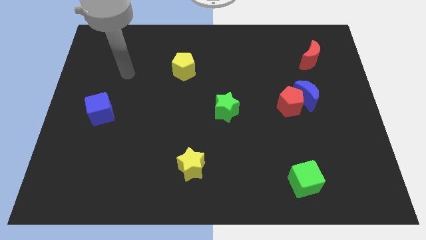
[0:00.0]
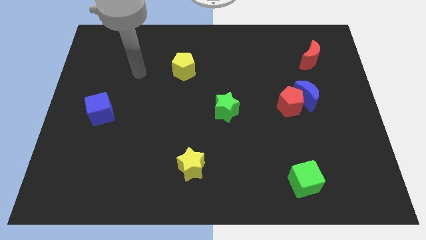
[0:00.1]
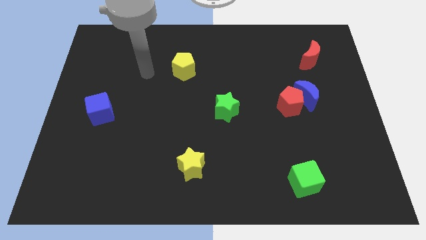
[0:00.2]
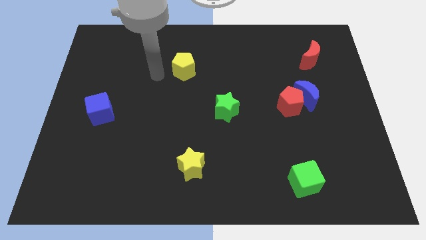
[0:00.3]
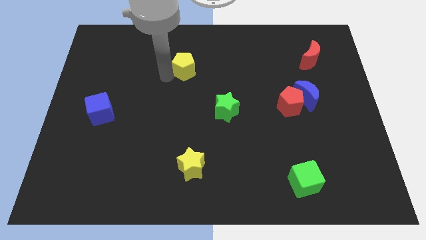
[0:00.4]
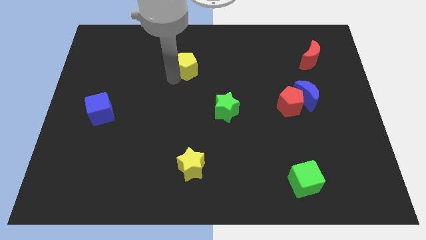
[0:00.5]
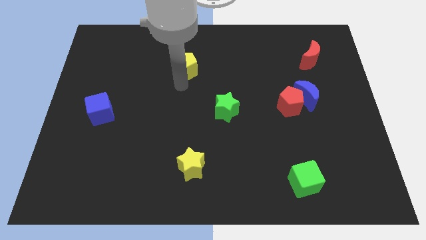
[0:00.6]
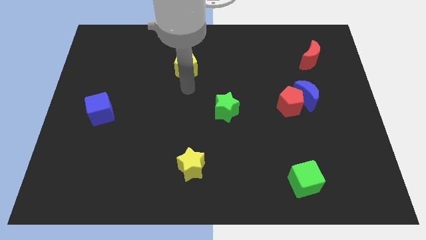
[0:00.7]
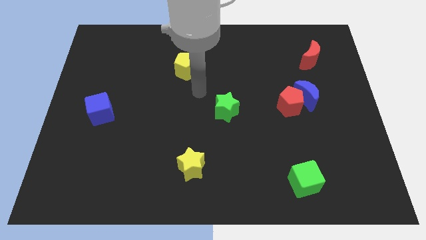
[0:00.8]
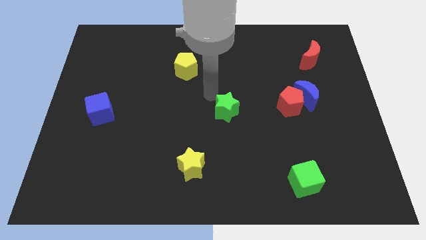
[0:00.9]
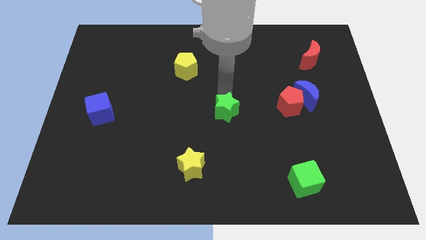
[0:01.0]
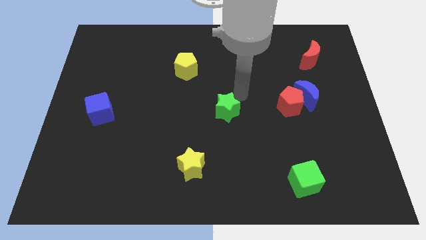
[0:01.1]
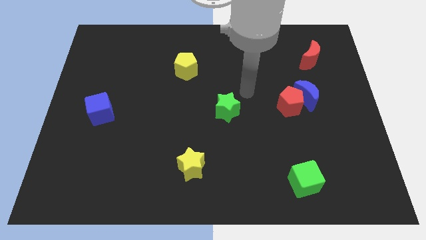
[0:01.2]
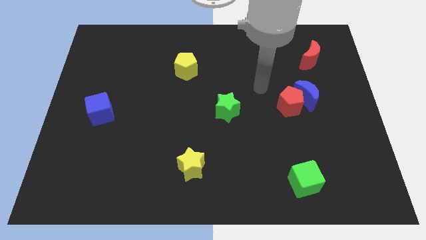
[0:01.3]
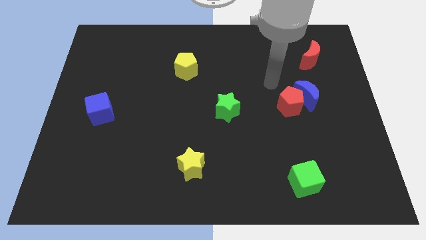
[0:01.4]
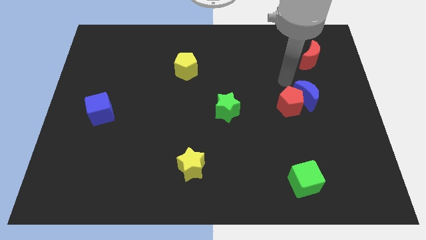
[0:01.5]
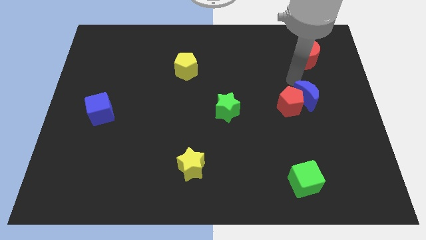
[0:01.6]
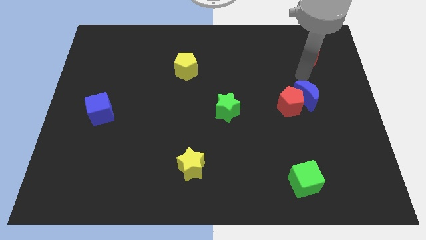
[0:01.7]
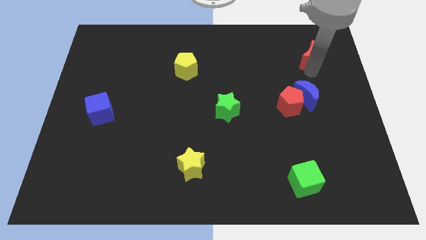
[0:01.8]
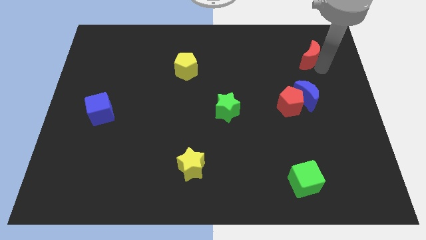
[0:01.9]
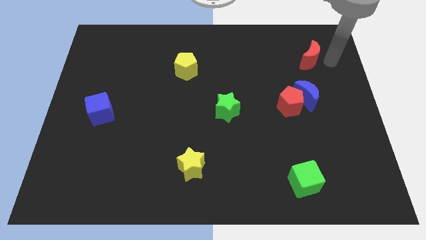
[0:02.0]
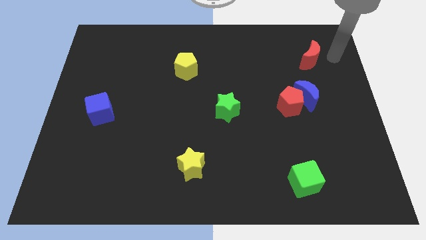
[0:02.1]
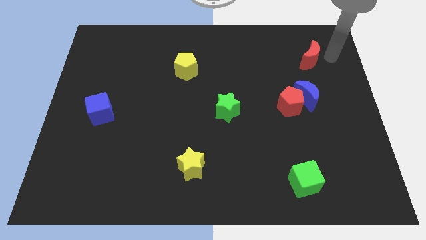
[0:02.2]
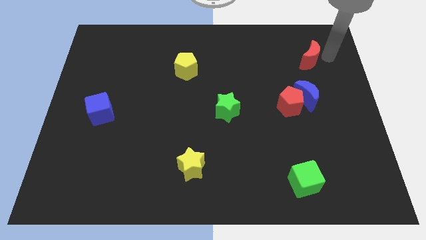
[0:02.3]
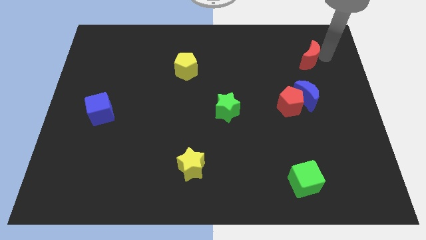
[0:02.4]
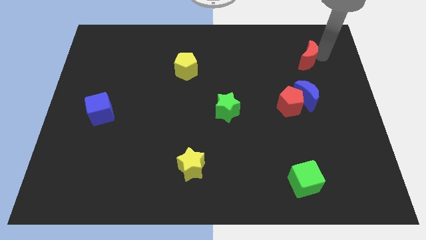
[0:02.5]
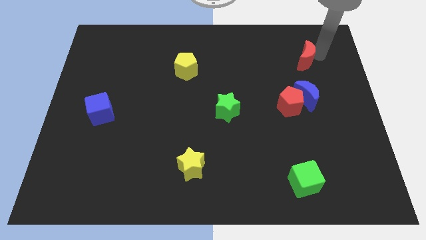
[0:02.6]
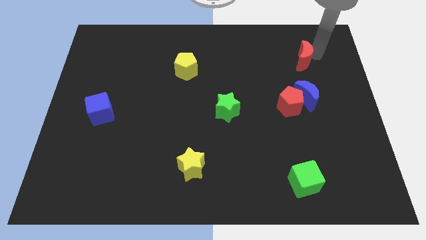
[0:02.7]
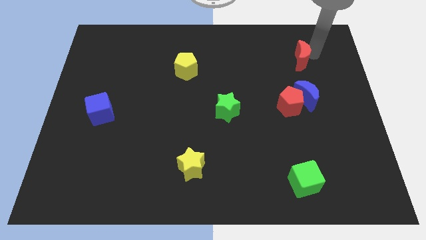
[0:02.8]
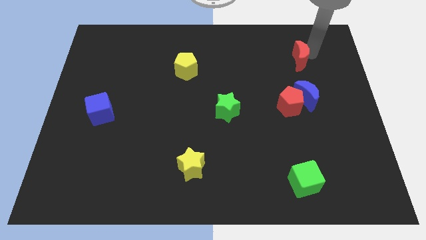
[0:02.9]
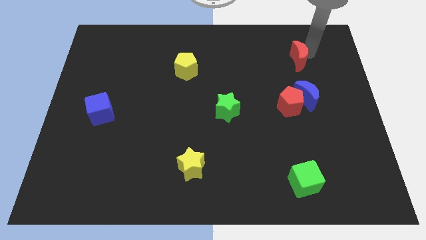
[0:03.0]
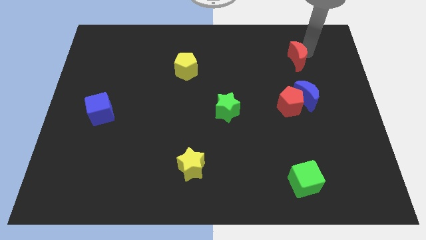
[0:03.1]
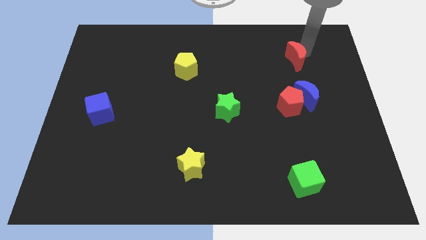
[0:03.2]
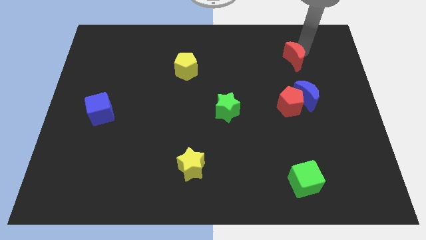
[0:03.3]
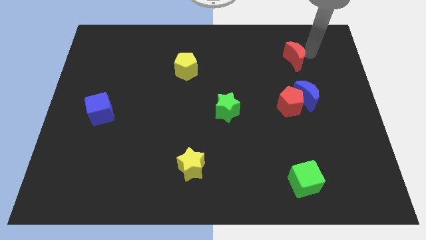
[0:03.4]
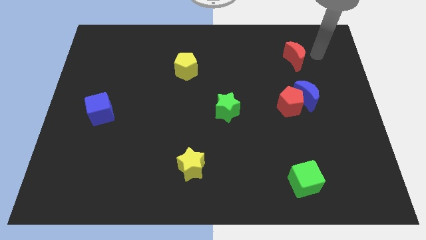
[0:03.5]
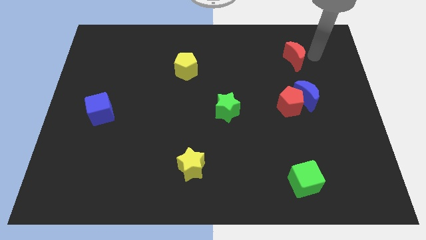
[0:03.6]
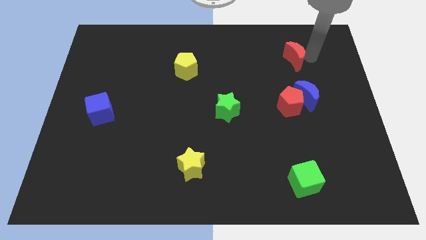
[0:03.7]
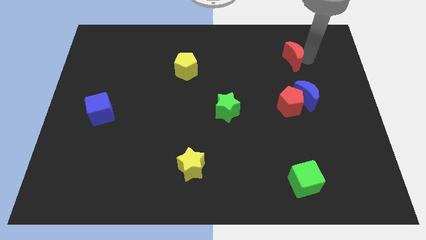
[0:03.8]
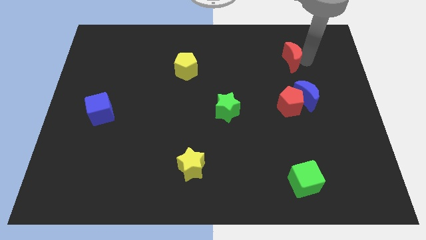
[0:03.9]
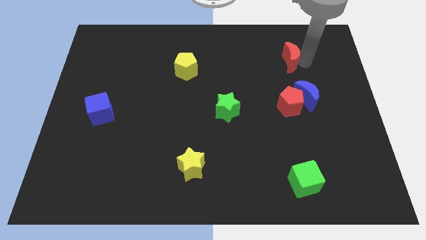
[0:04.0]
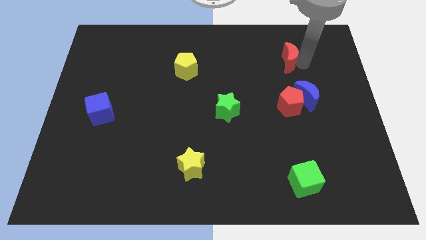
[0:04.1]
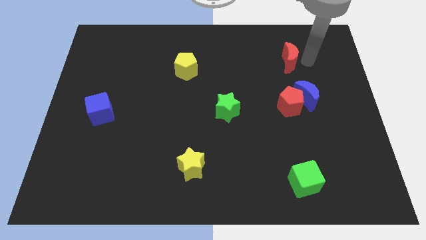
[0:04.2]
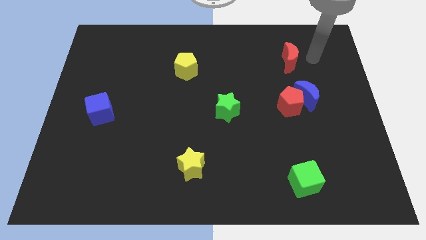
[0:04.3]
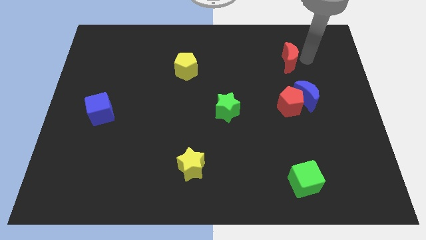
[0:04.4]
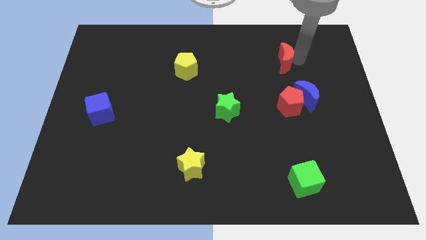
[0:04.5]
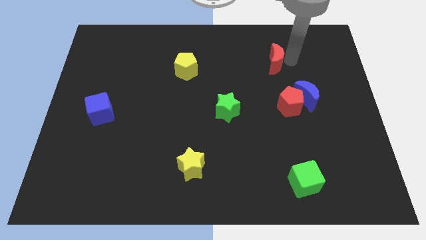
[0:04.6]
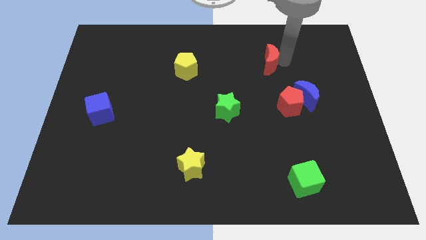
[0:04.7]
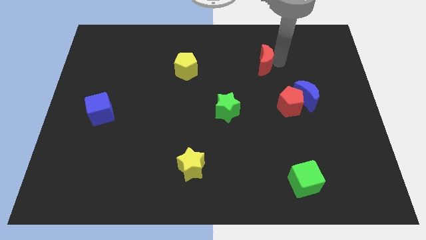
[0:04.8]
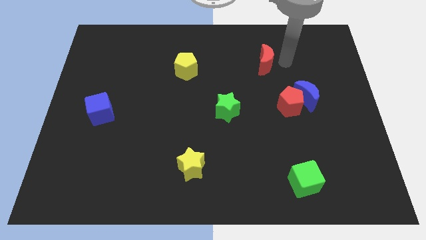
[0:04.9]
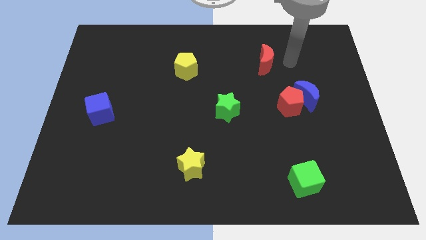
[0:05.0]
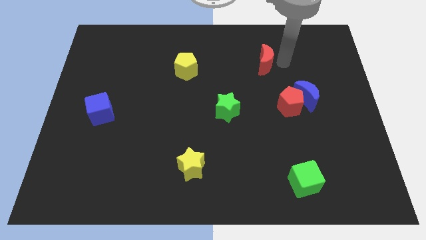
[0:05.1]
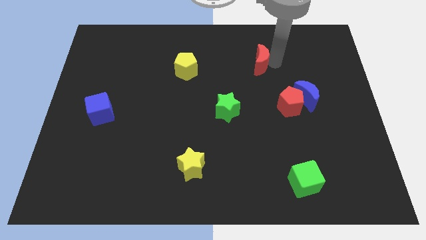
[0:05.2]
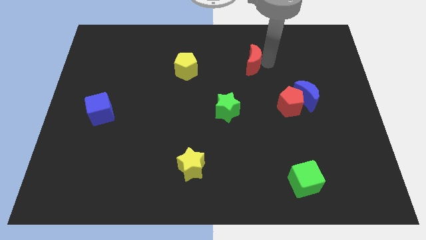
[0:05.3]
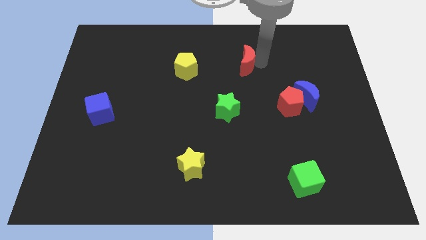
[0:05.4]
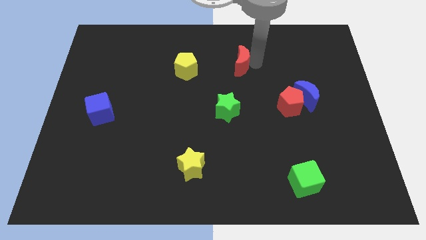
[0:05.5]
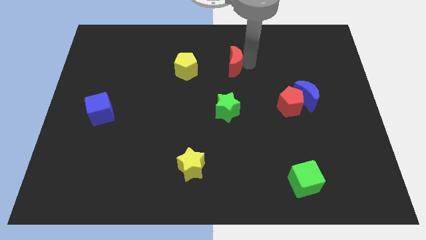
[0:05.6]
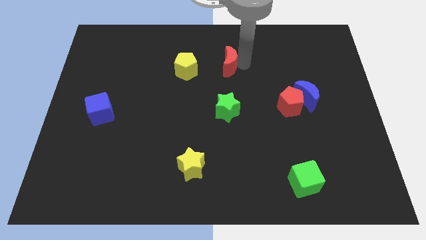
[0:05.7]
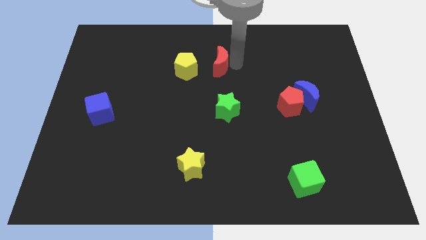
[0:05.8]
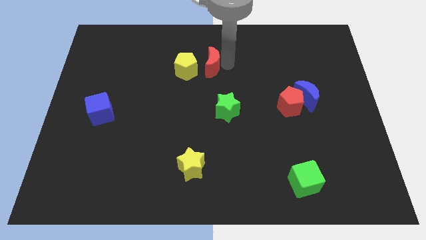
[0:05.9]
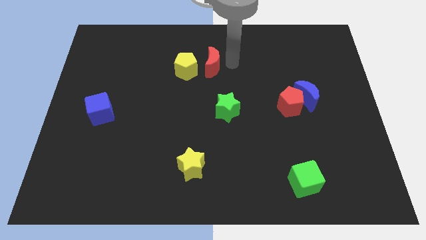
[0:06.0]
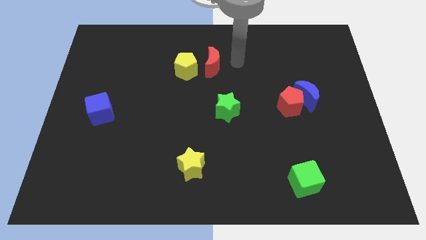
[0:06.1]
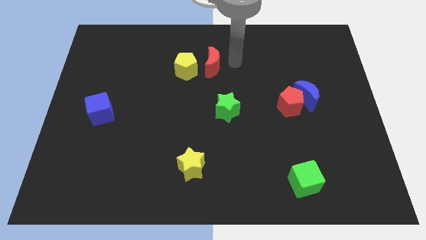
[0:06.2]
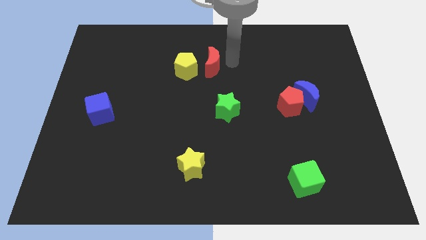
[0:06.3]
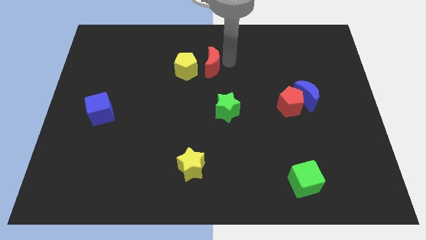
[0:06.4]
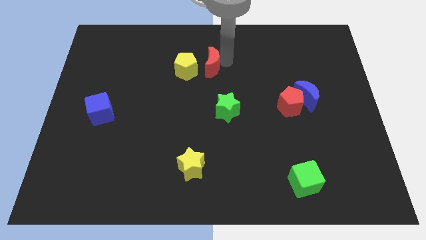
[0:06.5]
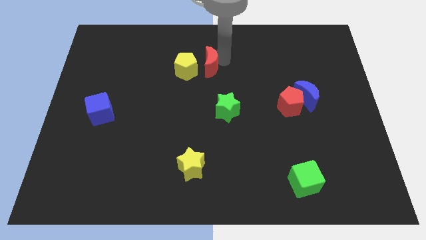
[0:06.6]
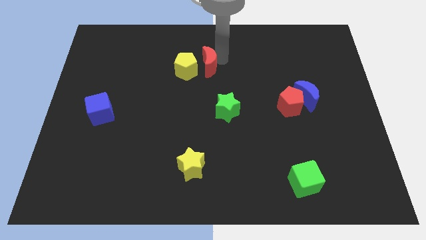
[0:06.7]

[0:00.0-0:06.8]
push the red moon close to the yellow pentagon

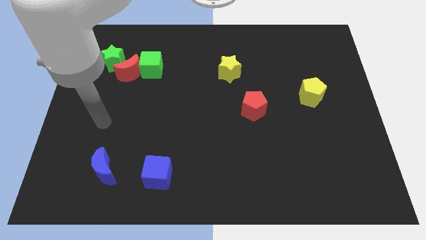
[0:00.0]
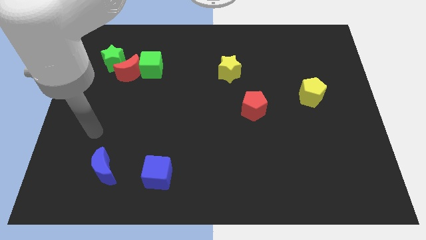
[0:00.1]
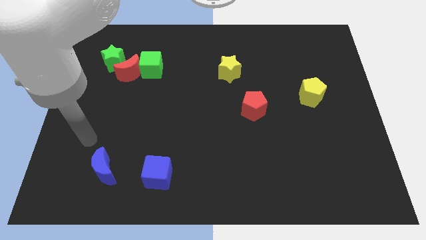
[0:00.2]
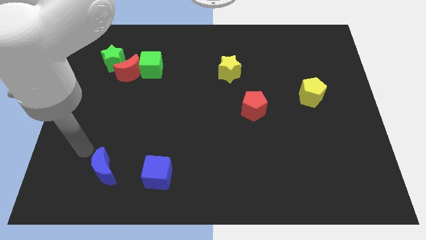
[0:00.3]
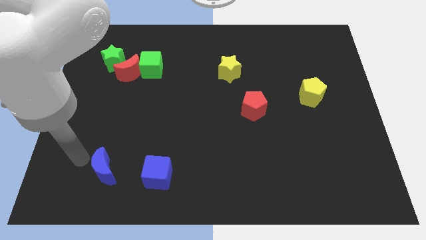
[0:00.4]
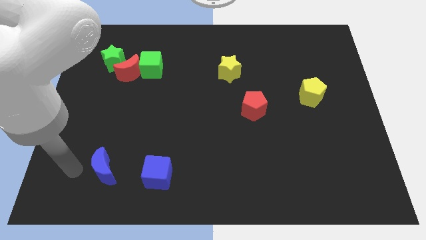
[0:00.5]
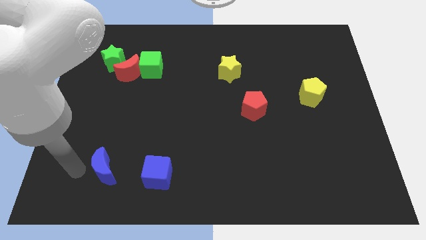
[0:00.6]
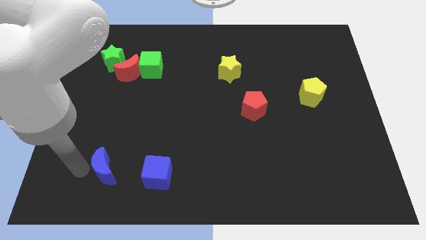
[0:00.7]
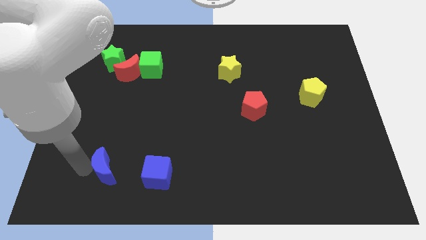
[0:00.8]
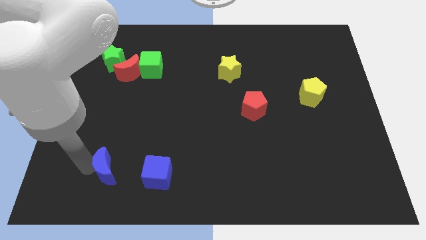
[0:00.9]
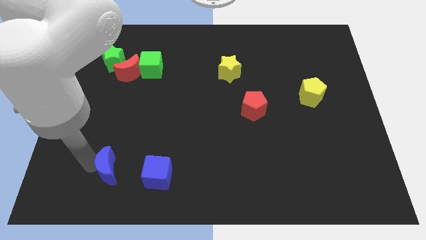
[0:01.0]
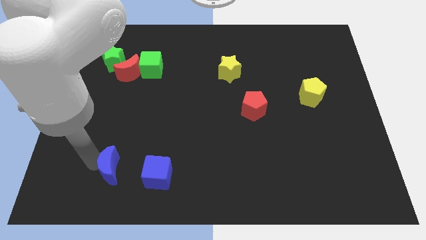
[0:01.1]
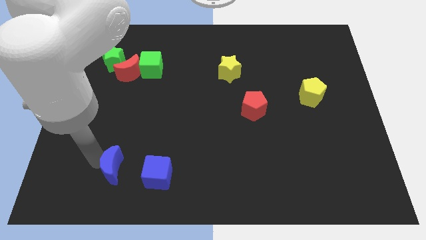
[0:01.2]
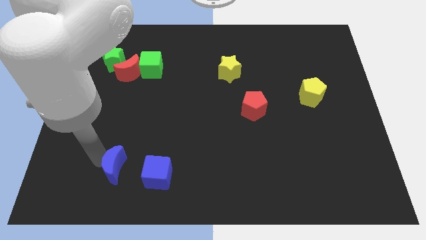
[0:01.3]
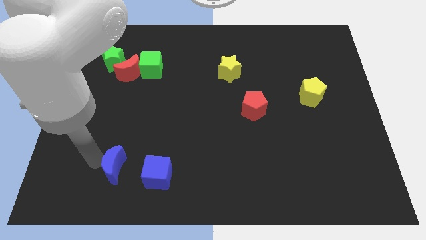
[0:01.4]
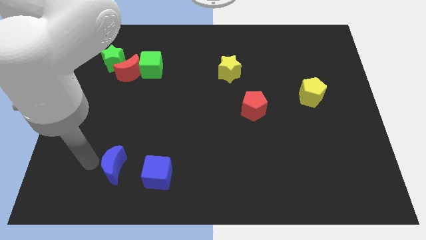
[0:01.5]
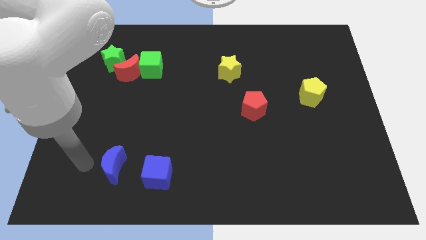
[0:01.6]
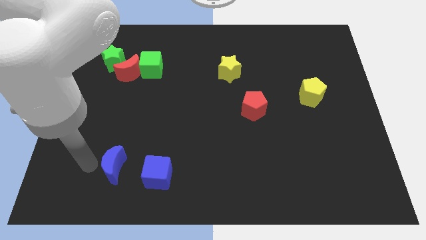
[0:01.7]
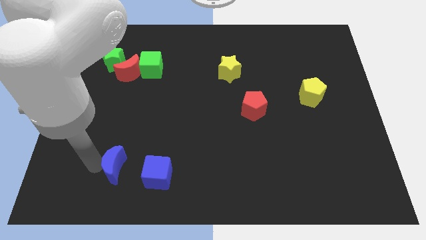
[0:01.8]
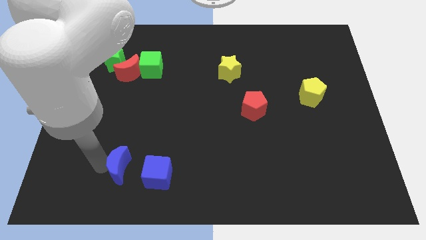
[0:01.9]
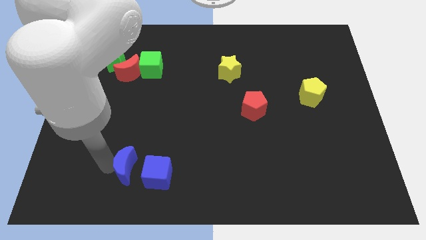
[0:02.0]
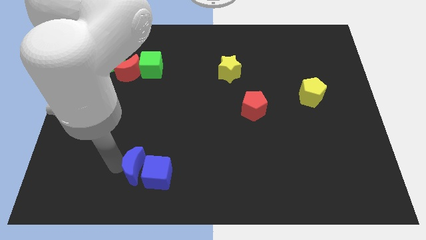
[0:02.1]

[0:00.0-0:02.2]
push the blue moon to the blue cube

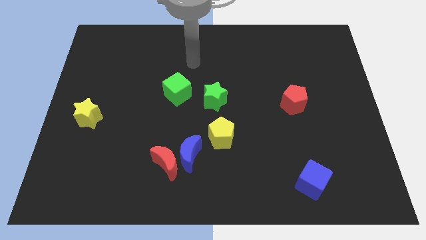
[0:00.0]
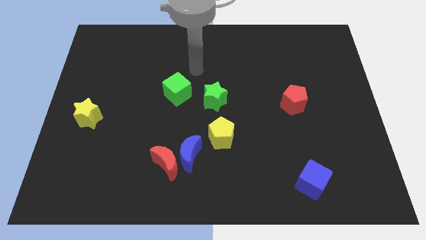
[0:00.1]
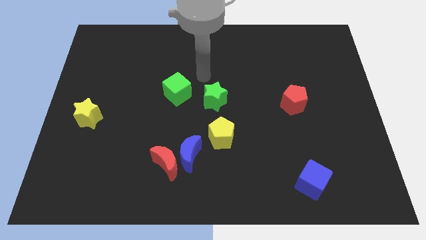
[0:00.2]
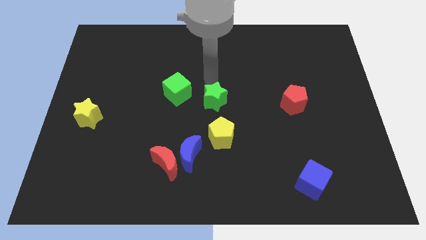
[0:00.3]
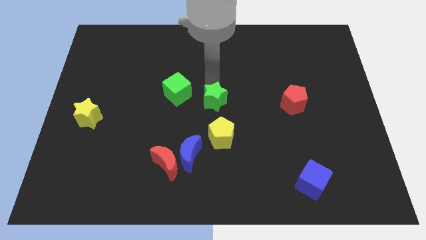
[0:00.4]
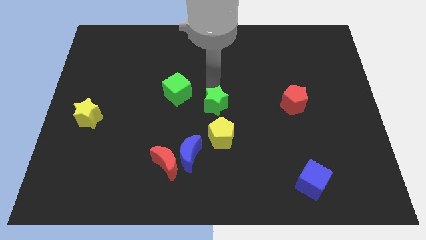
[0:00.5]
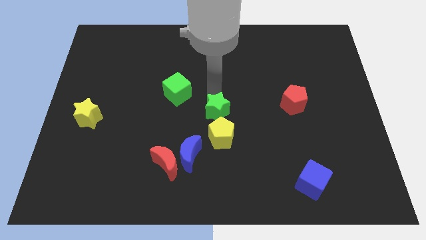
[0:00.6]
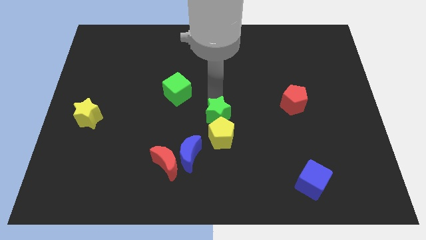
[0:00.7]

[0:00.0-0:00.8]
move the green star towards the yellow pentagon
